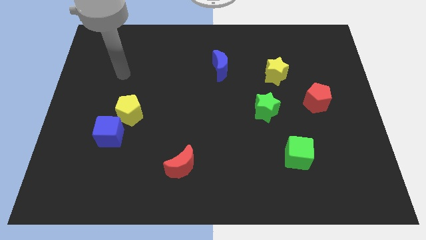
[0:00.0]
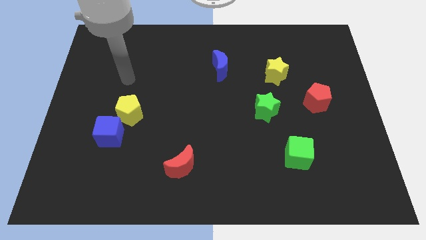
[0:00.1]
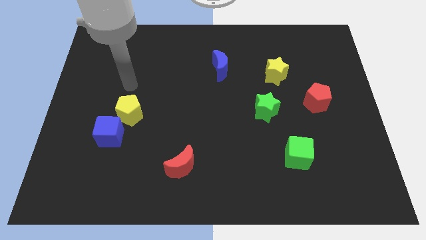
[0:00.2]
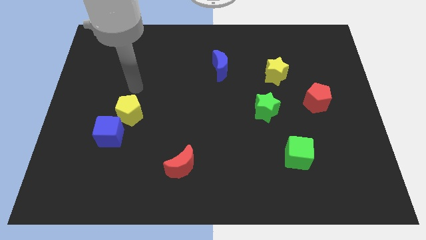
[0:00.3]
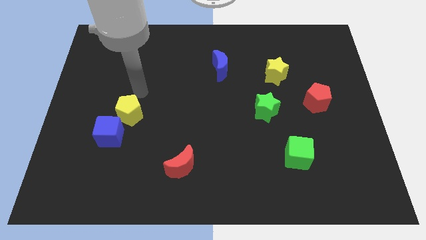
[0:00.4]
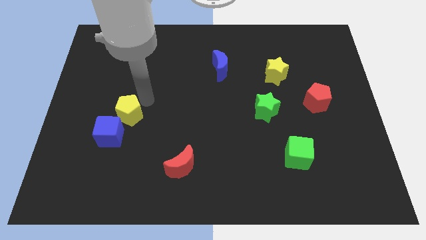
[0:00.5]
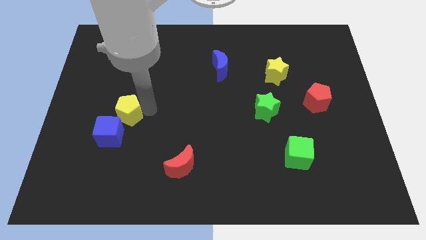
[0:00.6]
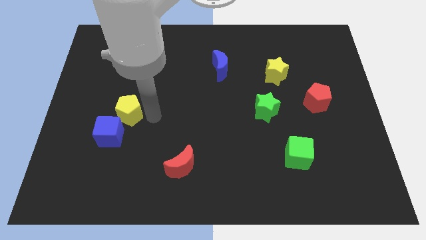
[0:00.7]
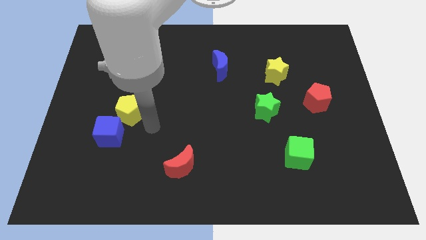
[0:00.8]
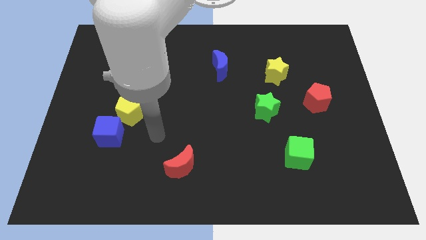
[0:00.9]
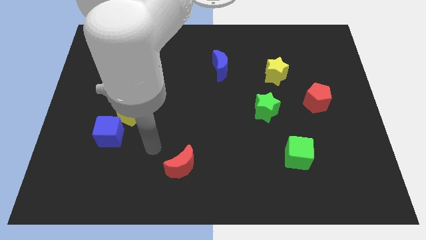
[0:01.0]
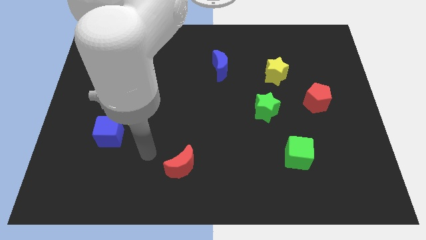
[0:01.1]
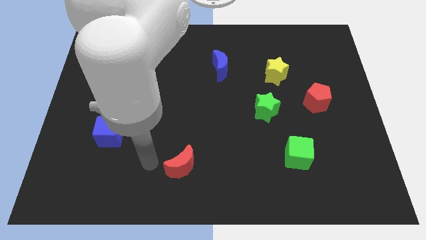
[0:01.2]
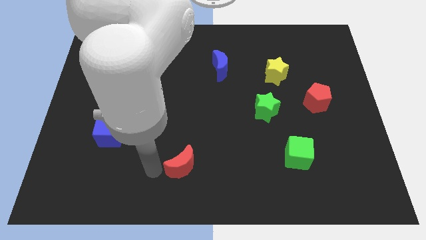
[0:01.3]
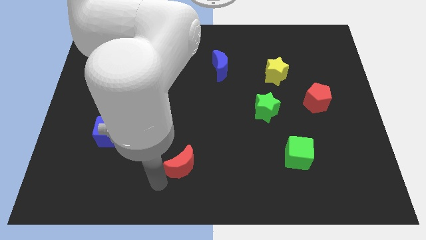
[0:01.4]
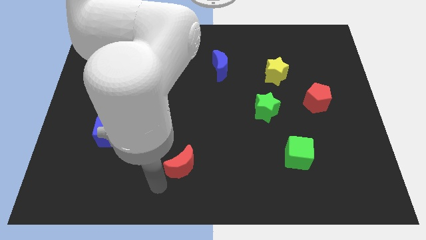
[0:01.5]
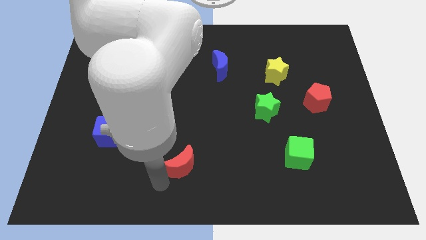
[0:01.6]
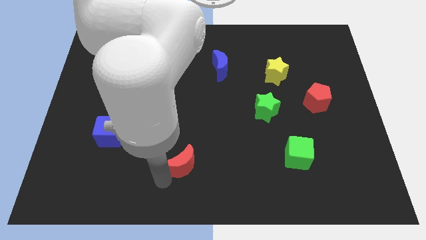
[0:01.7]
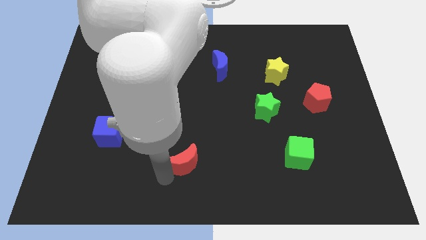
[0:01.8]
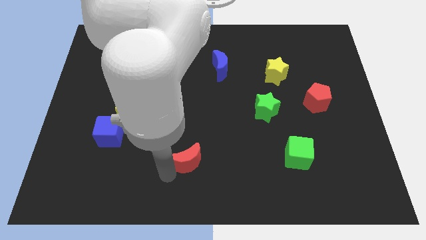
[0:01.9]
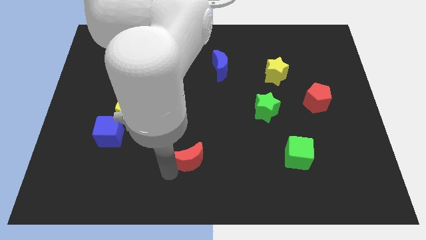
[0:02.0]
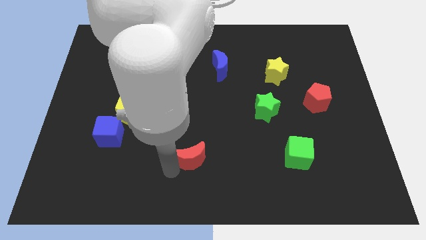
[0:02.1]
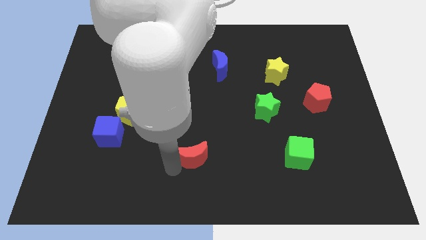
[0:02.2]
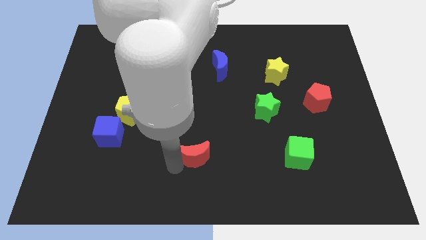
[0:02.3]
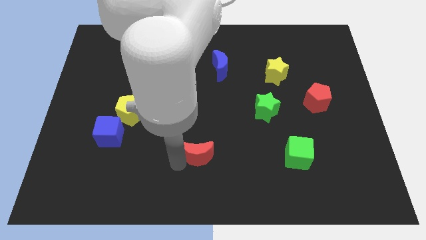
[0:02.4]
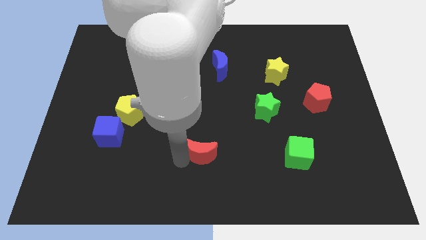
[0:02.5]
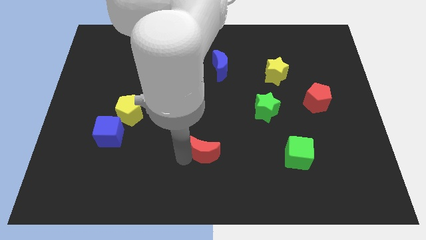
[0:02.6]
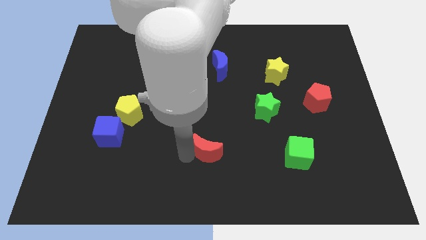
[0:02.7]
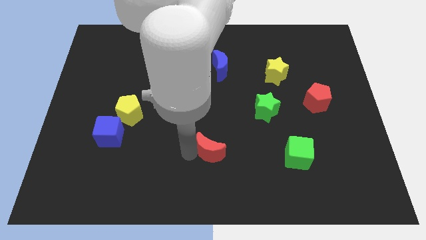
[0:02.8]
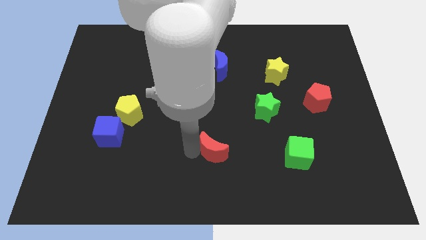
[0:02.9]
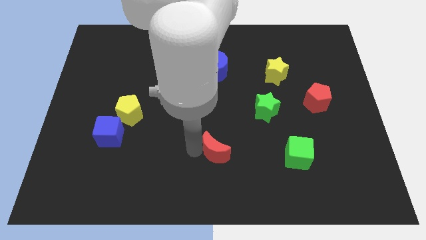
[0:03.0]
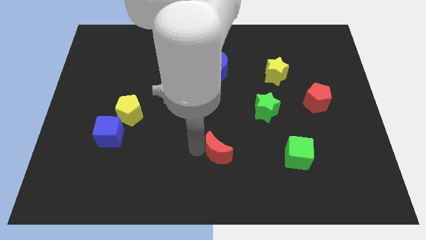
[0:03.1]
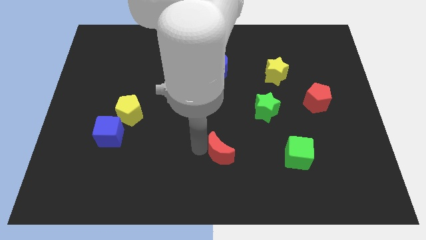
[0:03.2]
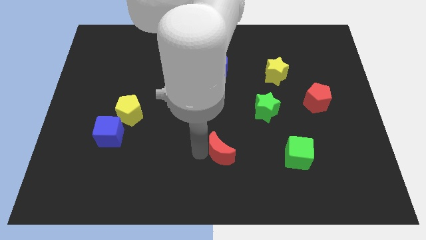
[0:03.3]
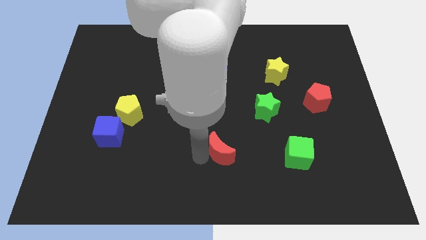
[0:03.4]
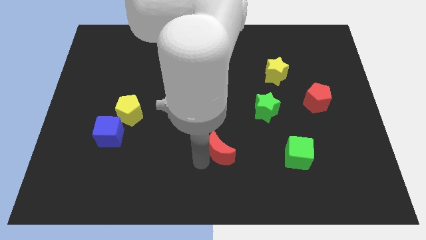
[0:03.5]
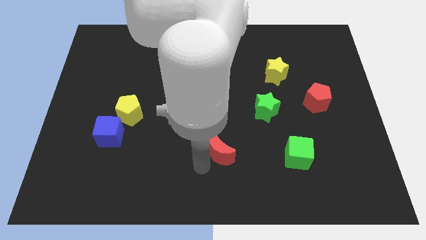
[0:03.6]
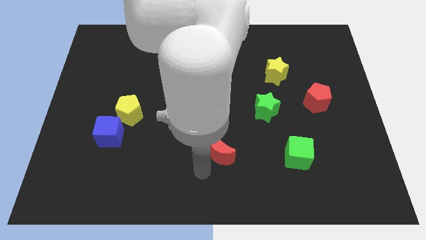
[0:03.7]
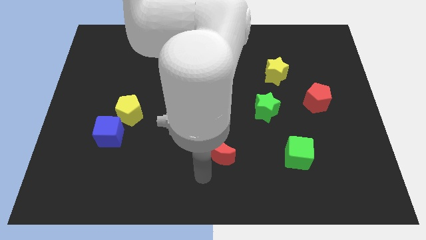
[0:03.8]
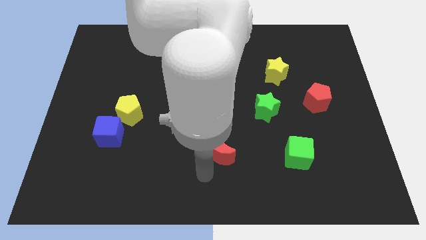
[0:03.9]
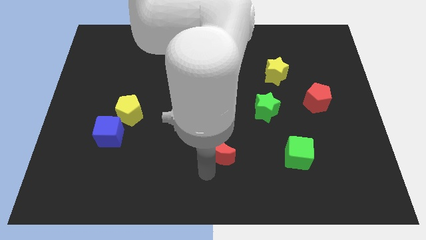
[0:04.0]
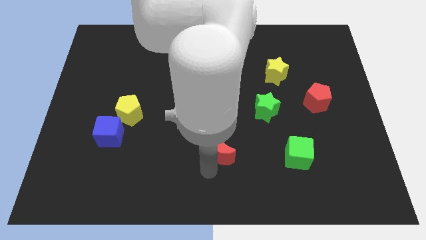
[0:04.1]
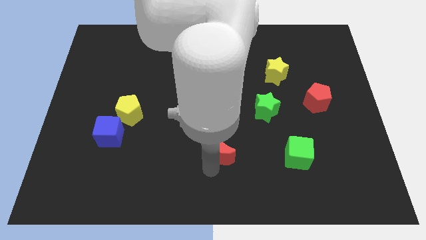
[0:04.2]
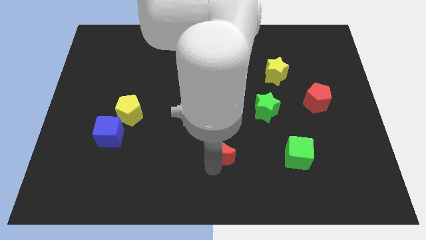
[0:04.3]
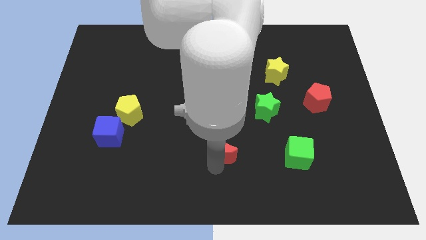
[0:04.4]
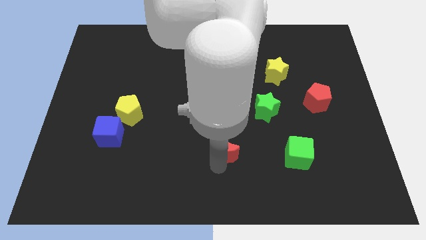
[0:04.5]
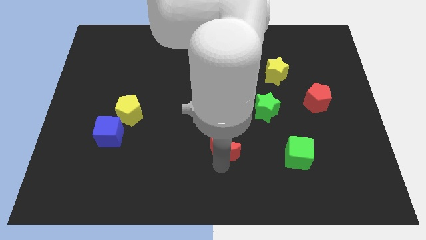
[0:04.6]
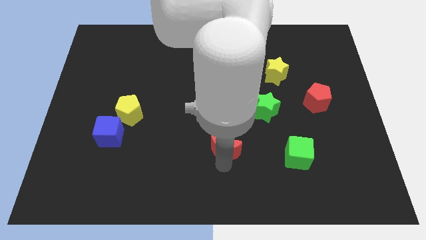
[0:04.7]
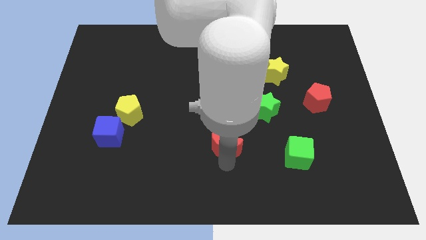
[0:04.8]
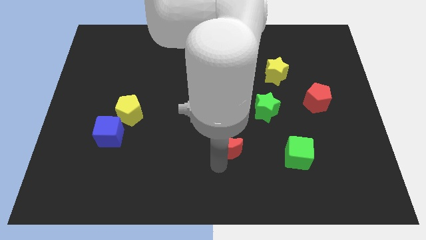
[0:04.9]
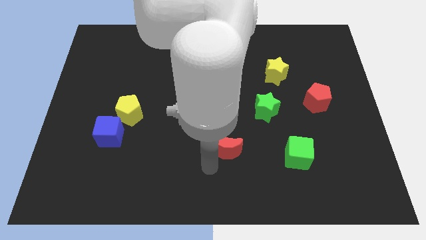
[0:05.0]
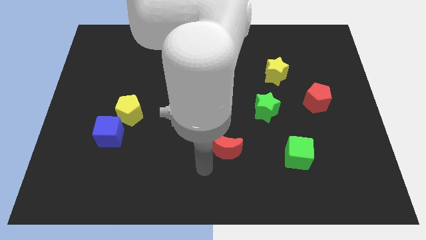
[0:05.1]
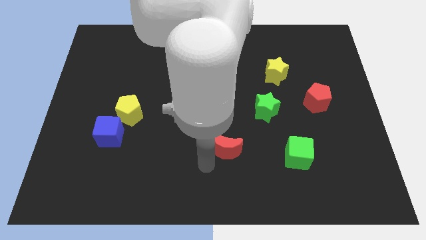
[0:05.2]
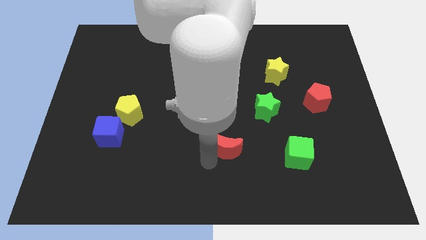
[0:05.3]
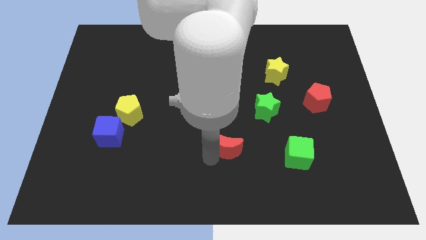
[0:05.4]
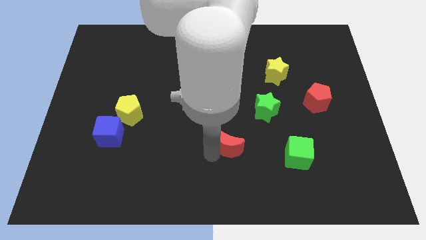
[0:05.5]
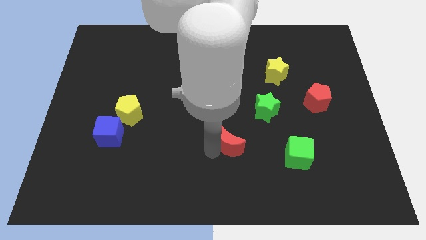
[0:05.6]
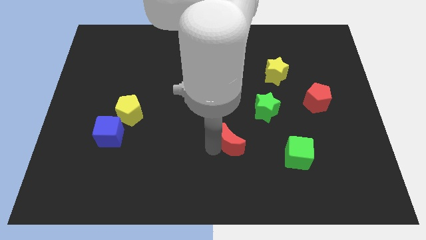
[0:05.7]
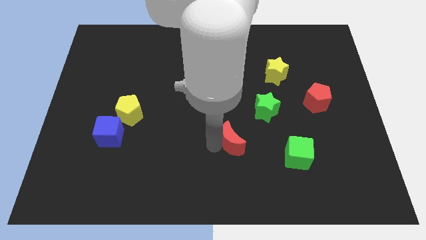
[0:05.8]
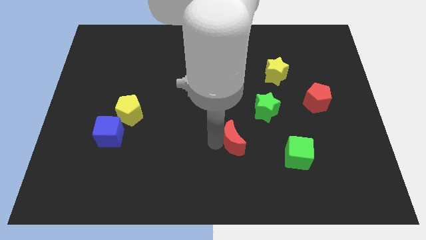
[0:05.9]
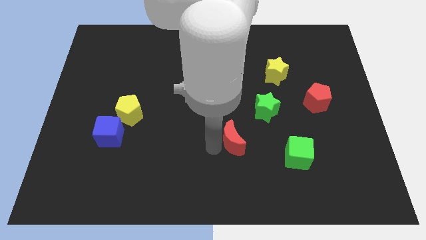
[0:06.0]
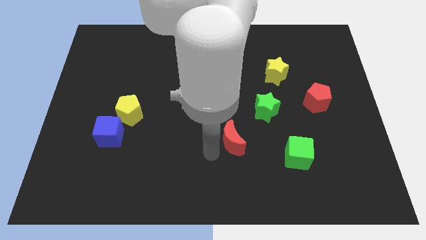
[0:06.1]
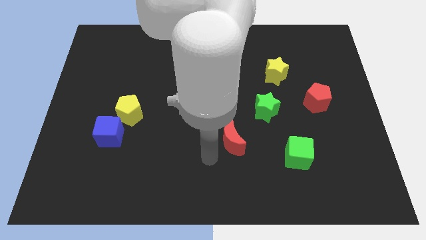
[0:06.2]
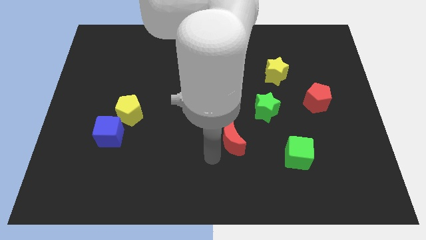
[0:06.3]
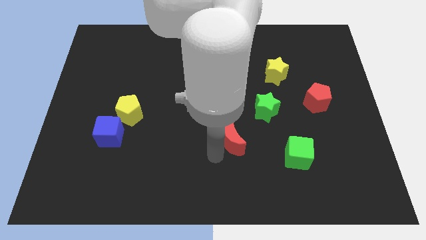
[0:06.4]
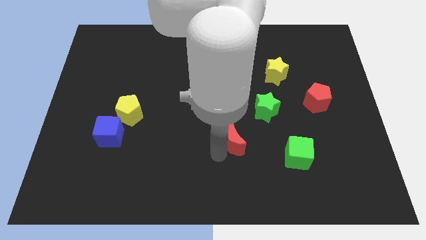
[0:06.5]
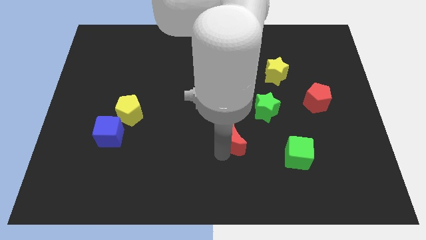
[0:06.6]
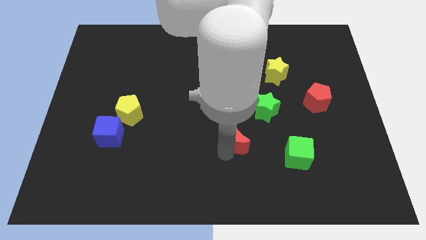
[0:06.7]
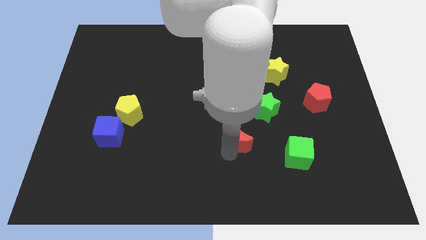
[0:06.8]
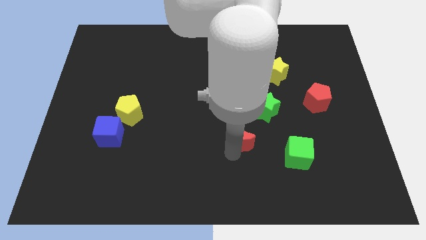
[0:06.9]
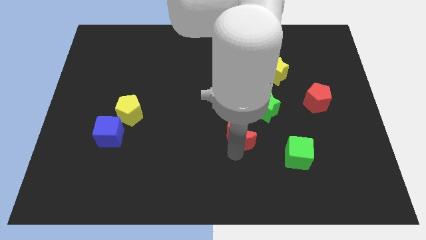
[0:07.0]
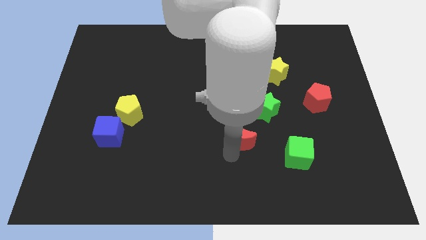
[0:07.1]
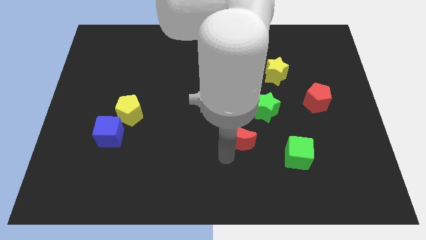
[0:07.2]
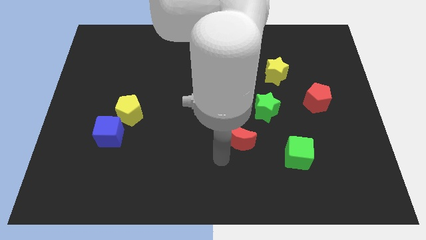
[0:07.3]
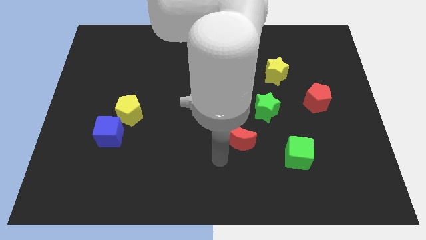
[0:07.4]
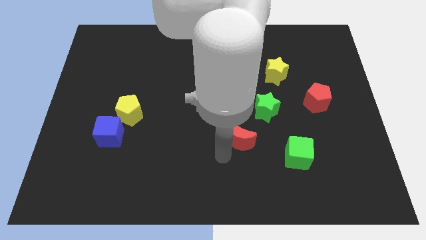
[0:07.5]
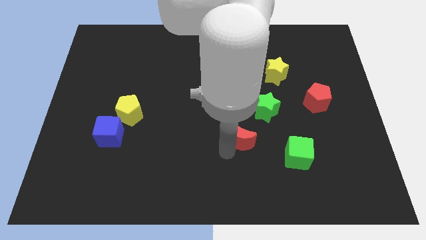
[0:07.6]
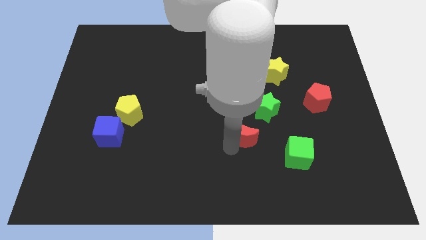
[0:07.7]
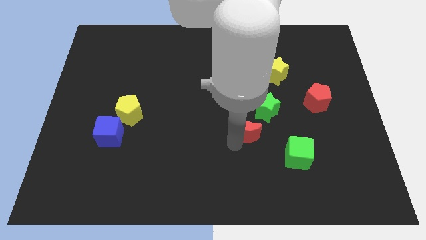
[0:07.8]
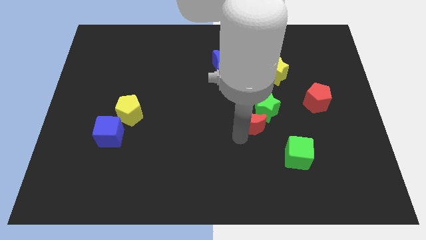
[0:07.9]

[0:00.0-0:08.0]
push the red moon to the green star
